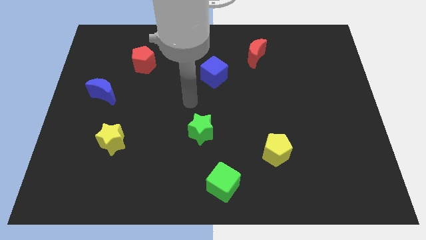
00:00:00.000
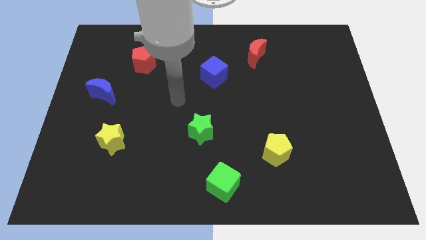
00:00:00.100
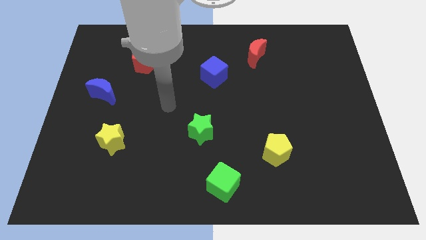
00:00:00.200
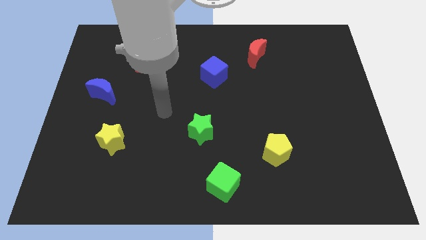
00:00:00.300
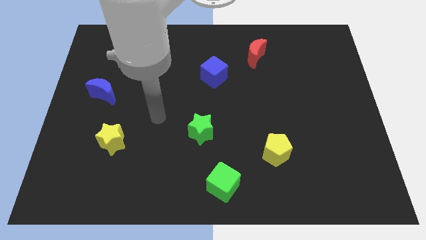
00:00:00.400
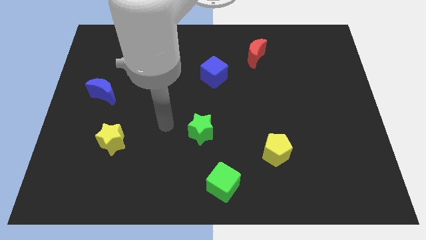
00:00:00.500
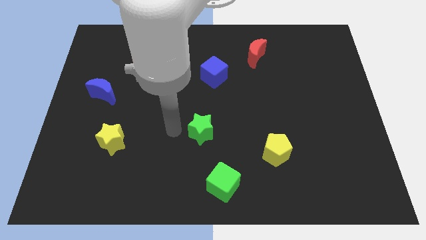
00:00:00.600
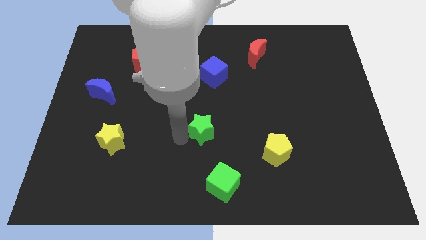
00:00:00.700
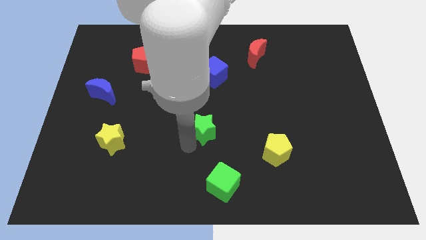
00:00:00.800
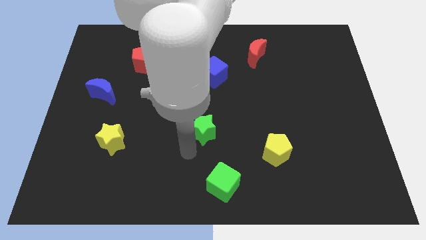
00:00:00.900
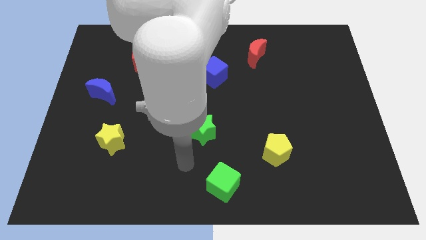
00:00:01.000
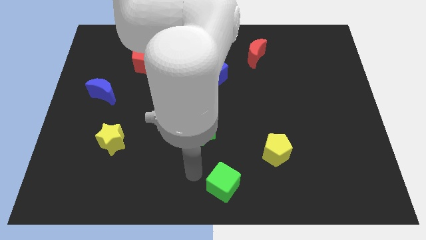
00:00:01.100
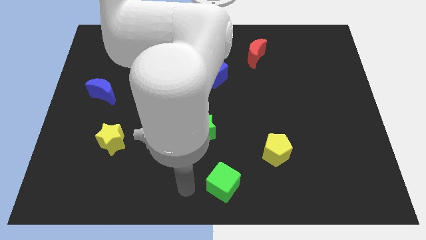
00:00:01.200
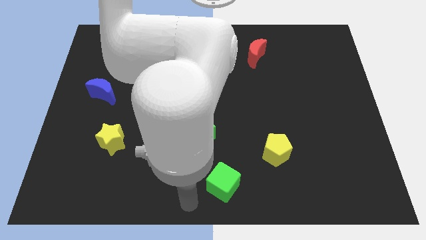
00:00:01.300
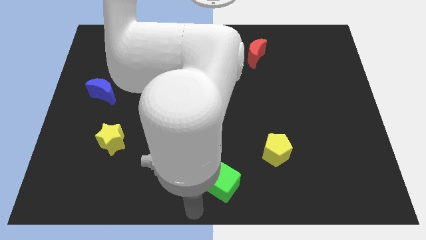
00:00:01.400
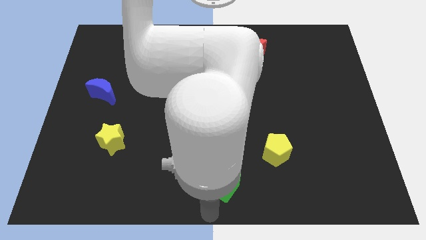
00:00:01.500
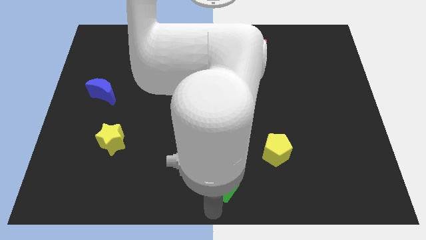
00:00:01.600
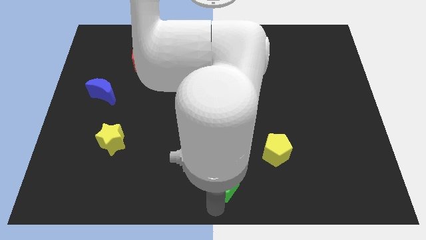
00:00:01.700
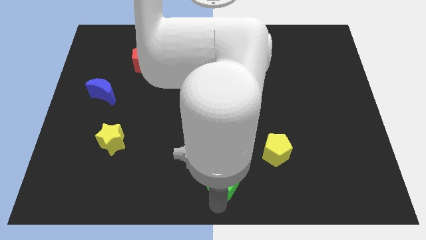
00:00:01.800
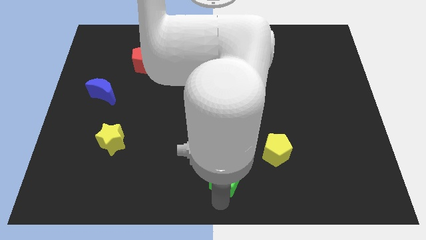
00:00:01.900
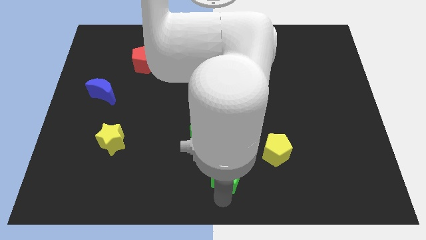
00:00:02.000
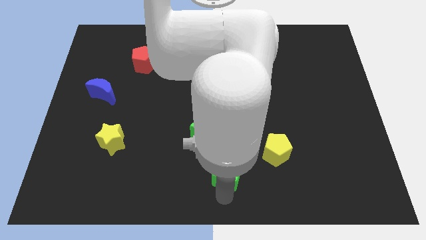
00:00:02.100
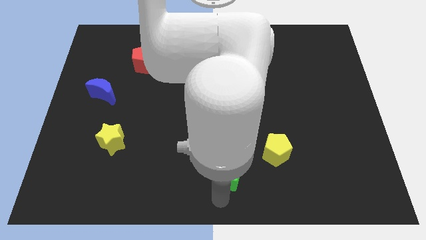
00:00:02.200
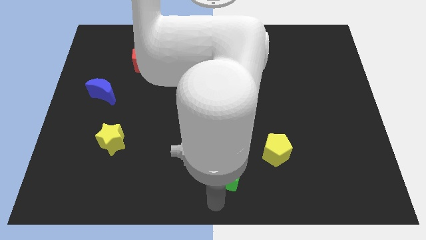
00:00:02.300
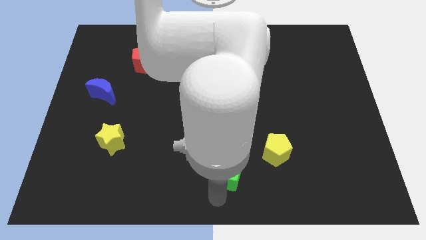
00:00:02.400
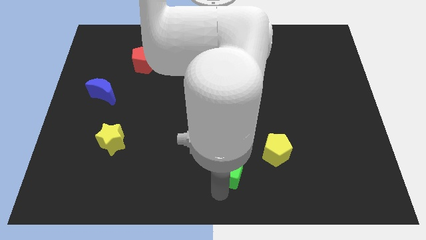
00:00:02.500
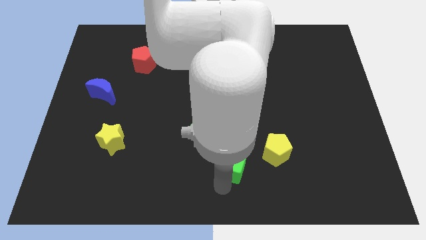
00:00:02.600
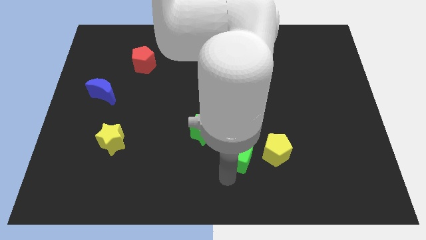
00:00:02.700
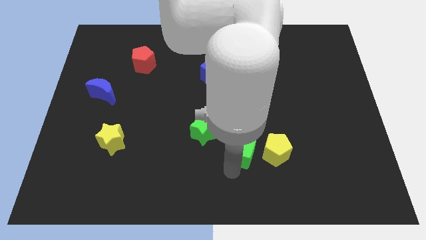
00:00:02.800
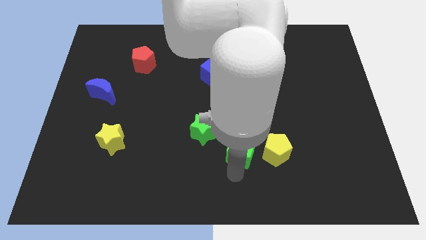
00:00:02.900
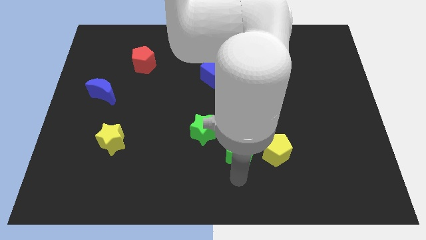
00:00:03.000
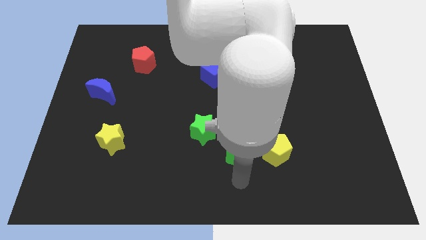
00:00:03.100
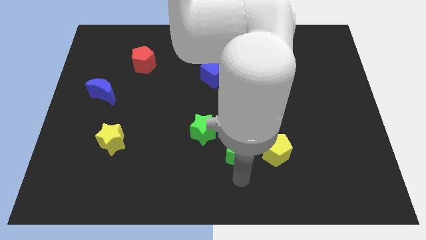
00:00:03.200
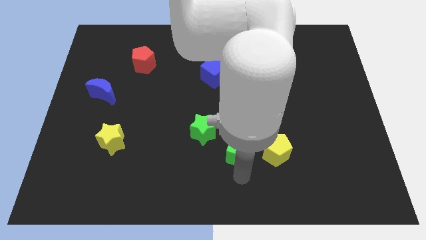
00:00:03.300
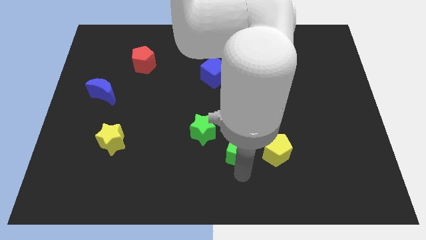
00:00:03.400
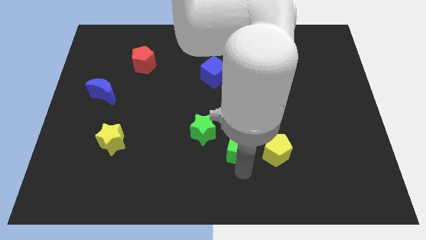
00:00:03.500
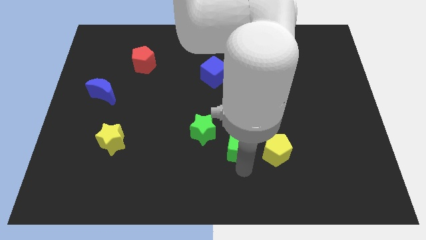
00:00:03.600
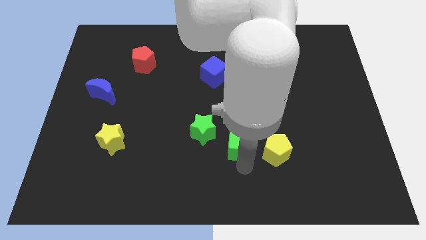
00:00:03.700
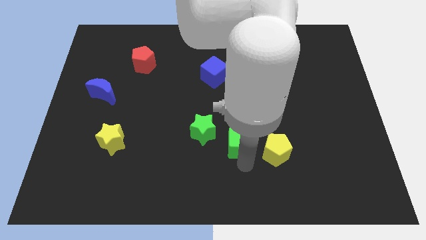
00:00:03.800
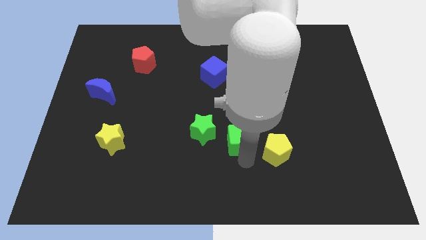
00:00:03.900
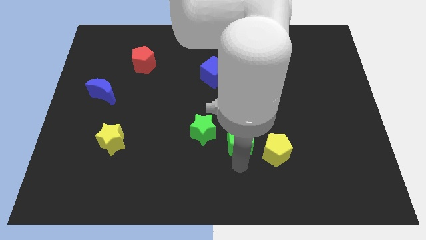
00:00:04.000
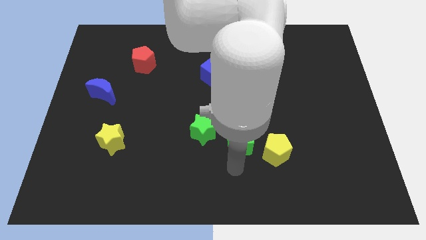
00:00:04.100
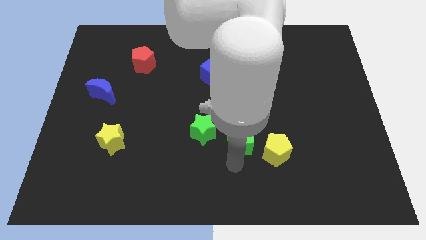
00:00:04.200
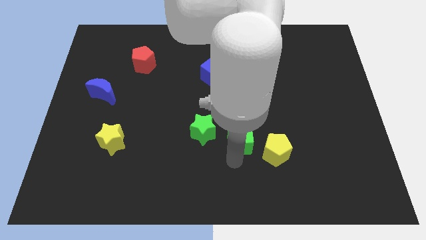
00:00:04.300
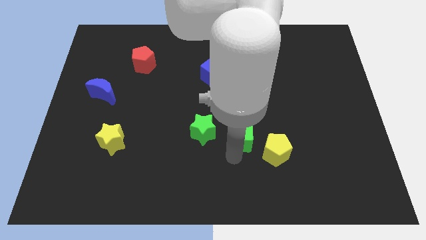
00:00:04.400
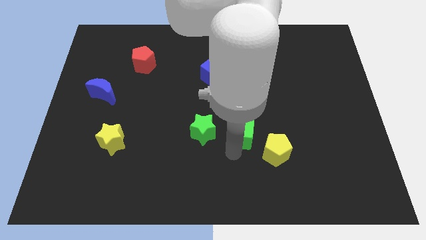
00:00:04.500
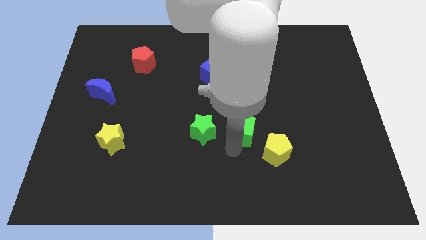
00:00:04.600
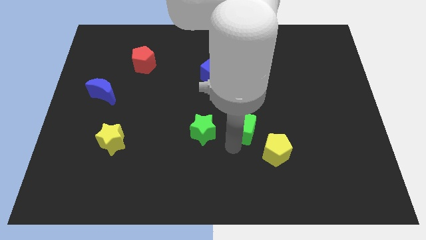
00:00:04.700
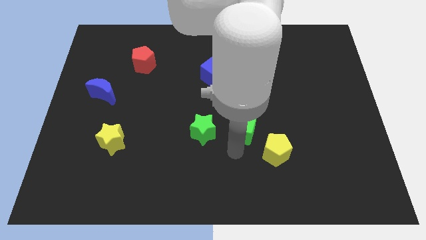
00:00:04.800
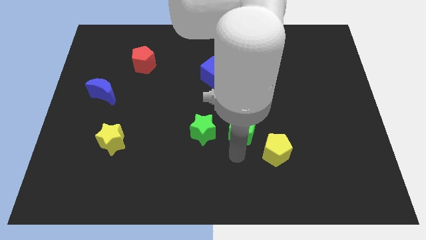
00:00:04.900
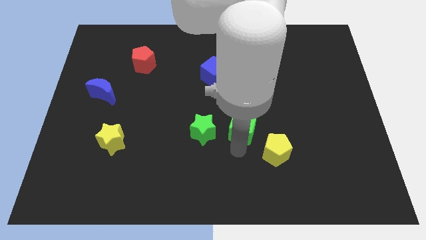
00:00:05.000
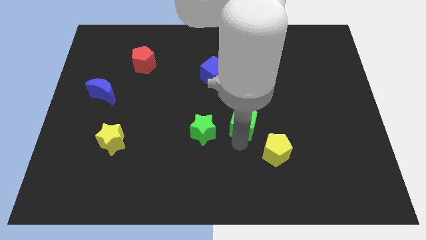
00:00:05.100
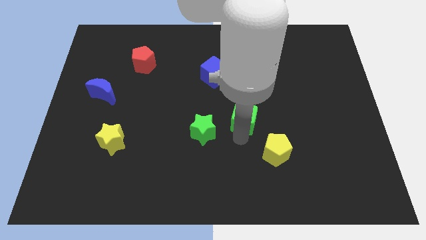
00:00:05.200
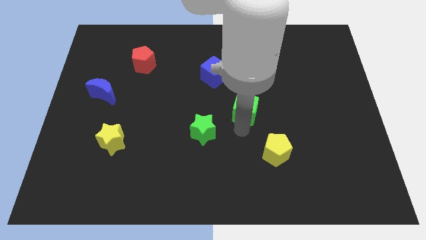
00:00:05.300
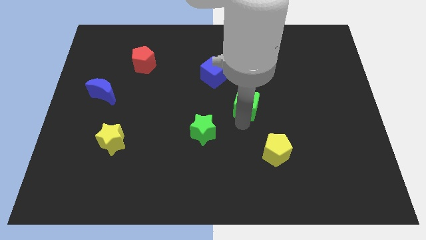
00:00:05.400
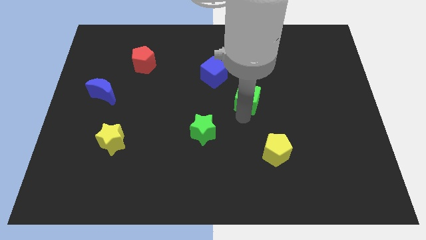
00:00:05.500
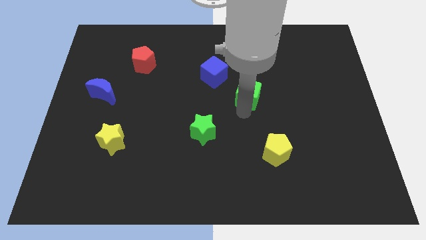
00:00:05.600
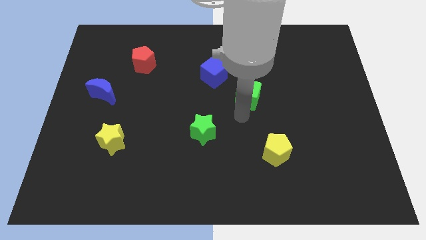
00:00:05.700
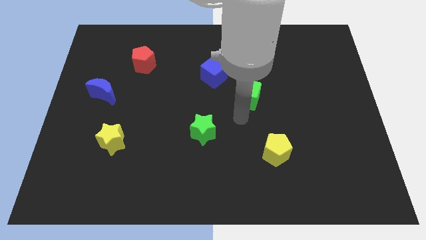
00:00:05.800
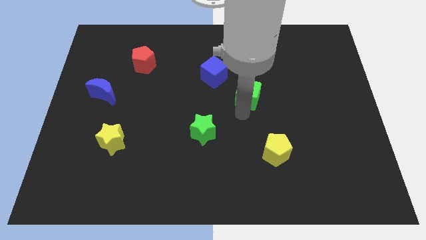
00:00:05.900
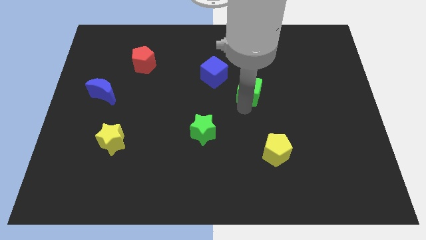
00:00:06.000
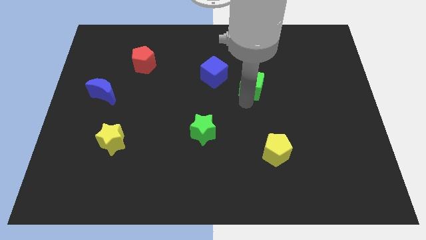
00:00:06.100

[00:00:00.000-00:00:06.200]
push the green cube to the right of the blue cube

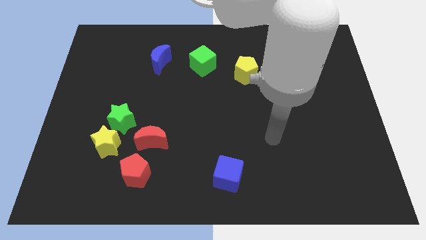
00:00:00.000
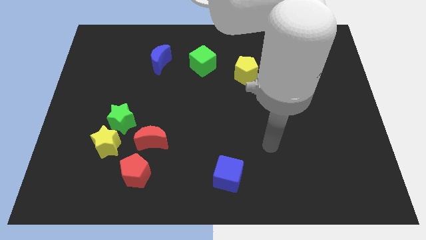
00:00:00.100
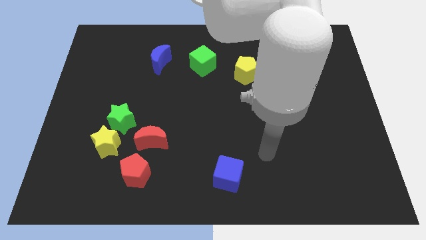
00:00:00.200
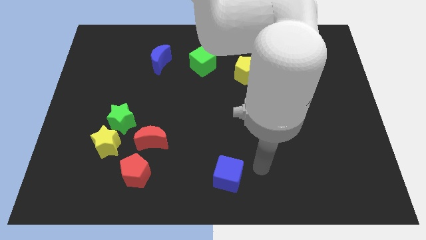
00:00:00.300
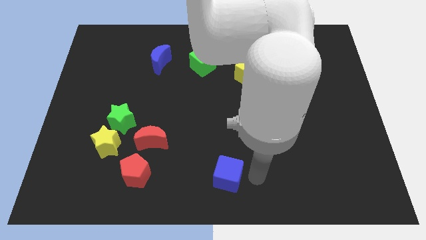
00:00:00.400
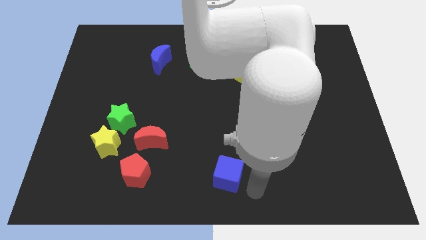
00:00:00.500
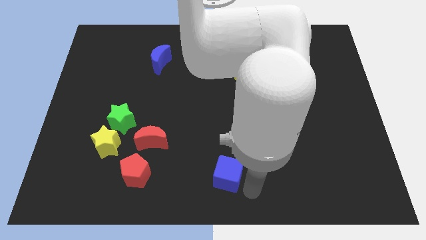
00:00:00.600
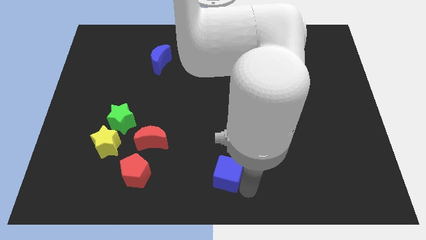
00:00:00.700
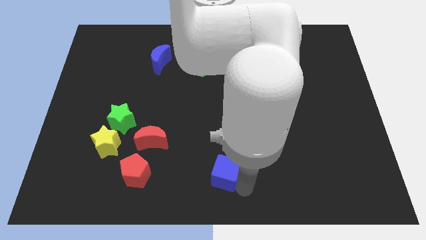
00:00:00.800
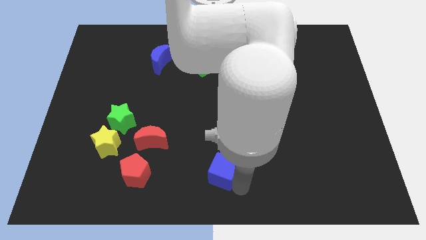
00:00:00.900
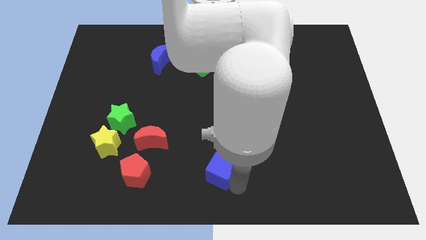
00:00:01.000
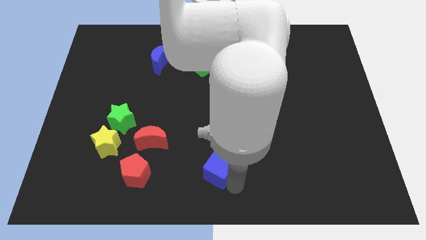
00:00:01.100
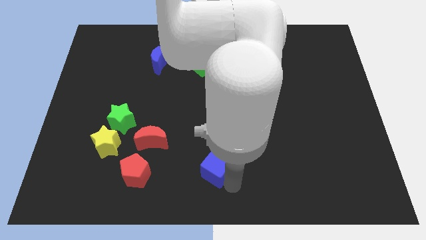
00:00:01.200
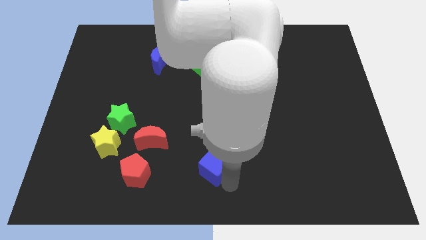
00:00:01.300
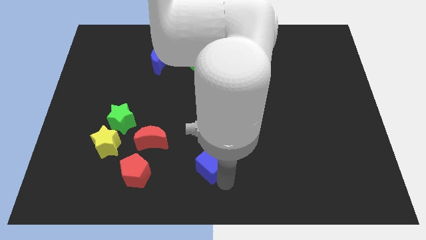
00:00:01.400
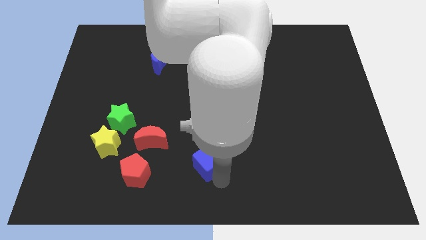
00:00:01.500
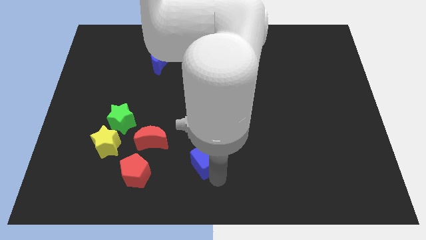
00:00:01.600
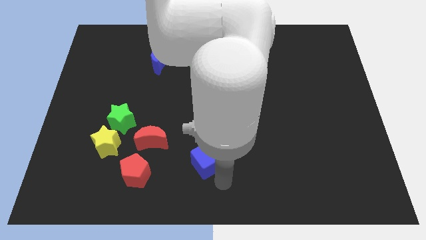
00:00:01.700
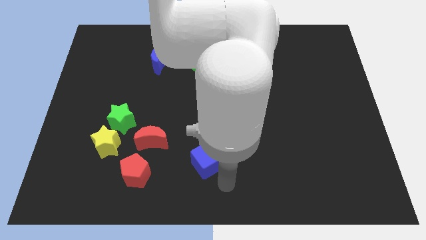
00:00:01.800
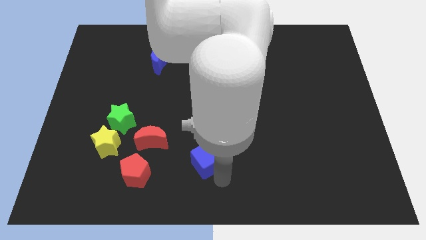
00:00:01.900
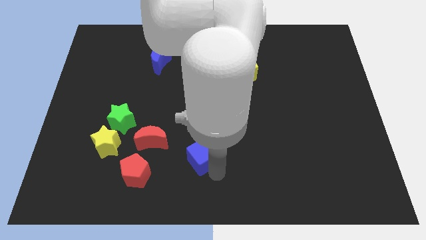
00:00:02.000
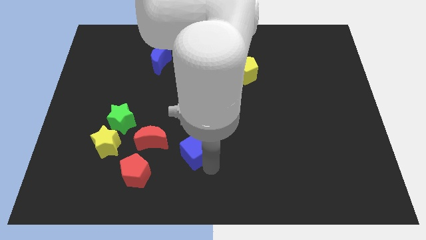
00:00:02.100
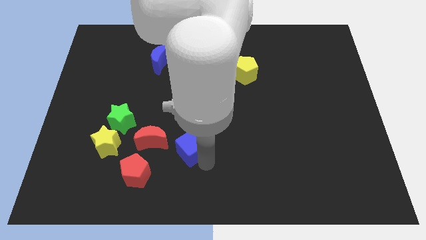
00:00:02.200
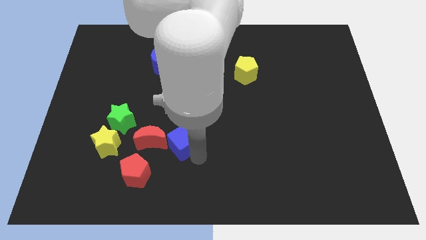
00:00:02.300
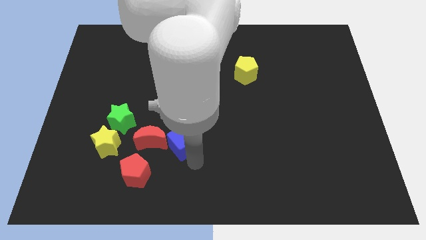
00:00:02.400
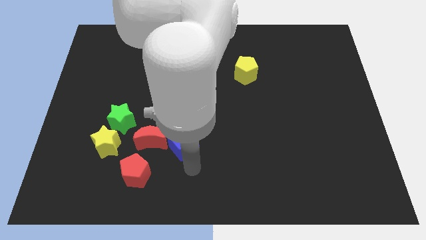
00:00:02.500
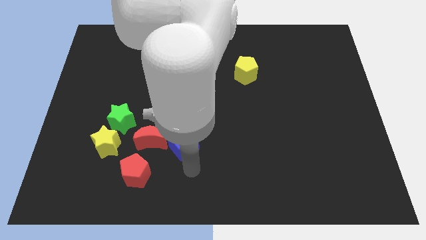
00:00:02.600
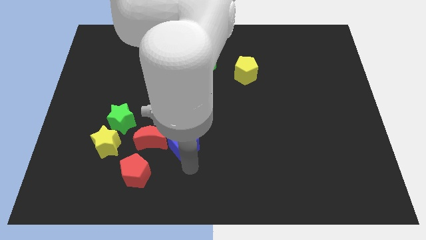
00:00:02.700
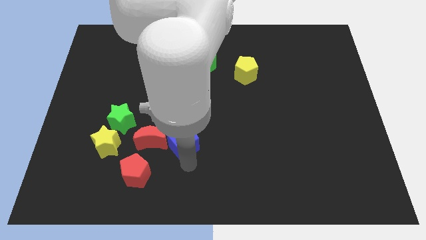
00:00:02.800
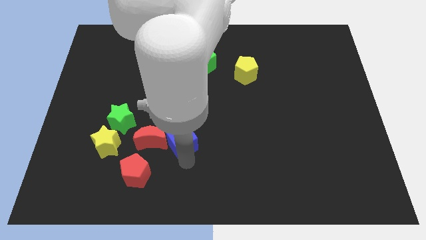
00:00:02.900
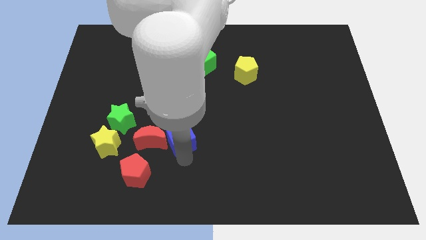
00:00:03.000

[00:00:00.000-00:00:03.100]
slide the blue cube diagonally up and to the right of the red moon
